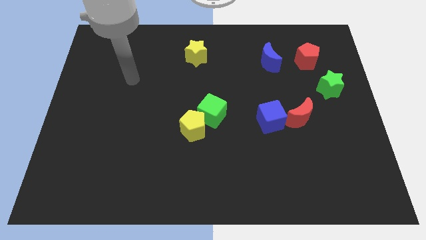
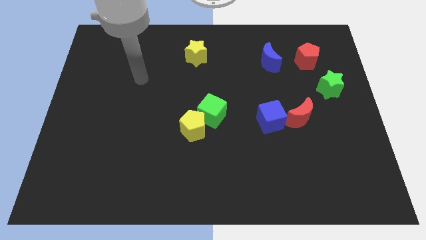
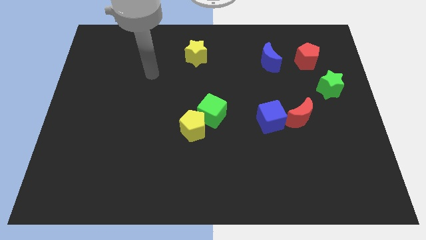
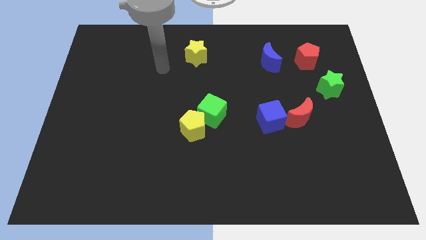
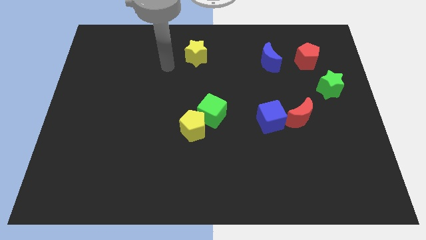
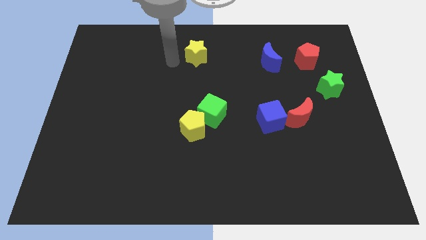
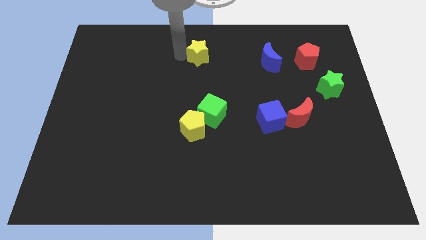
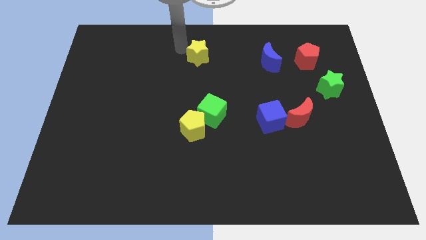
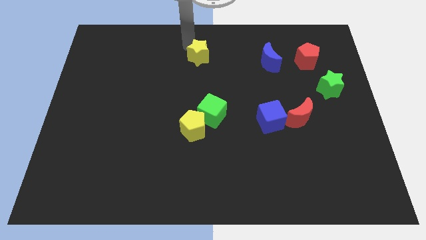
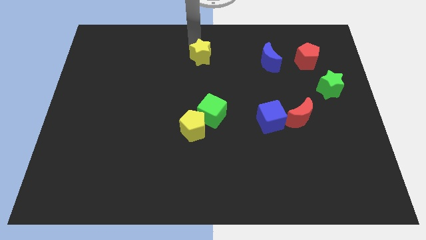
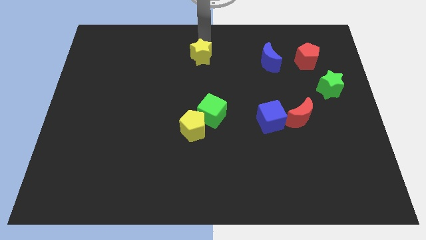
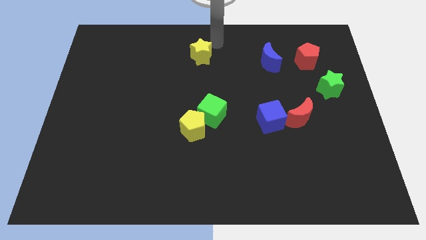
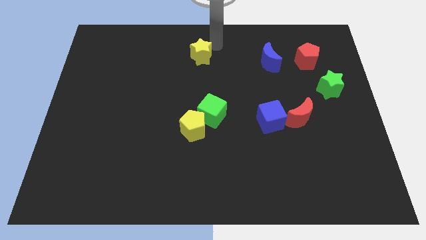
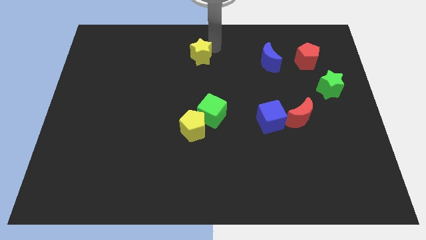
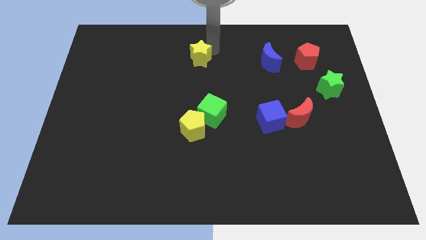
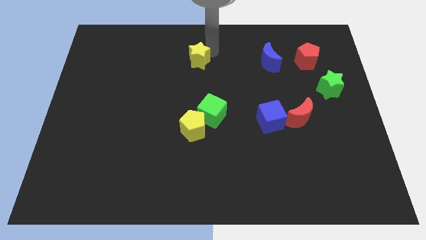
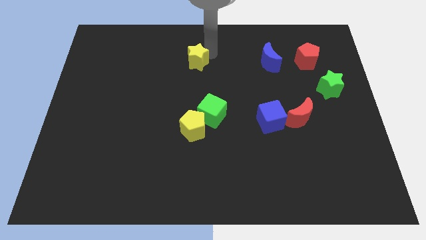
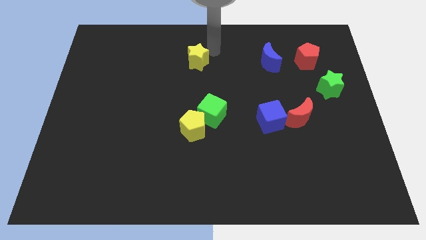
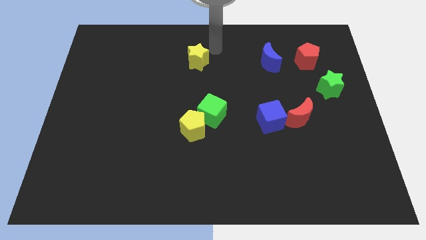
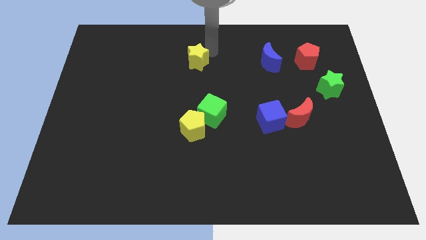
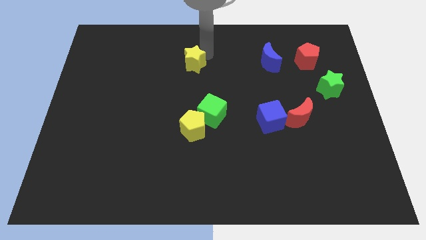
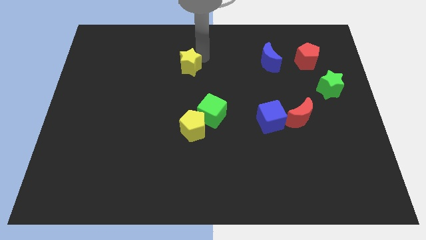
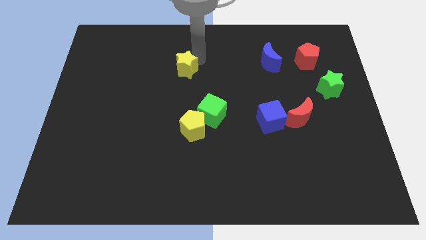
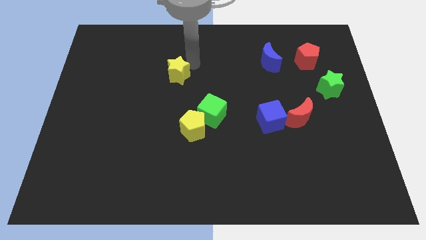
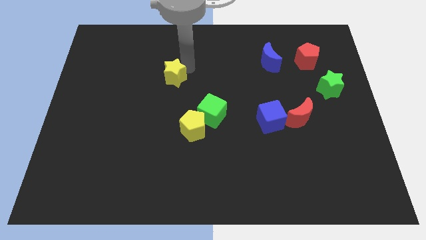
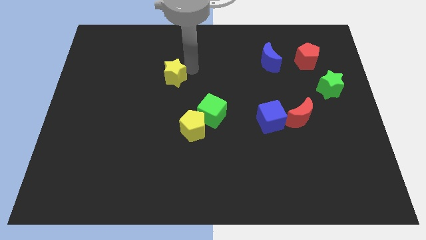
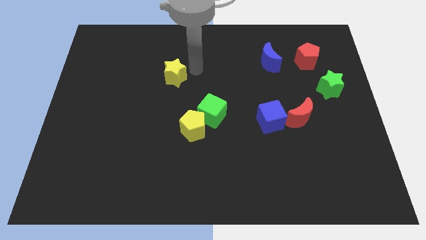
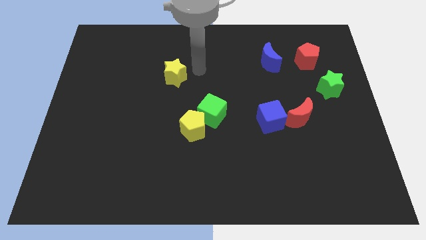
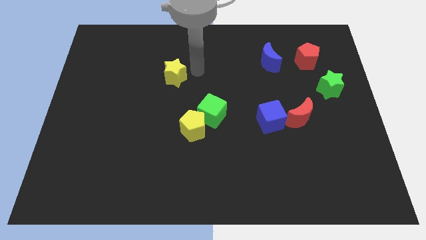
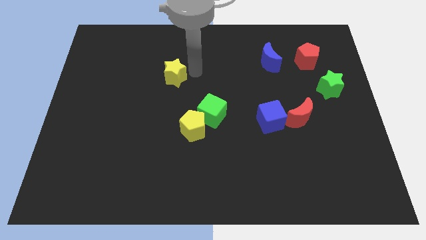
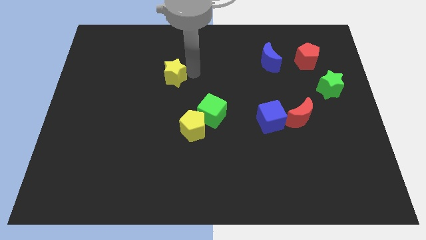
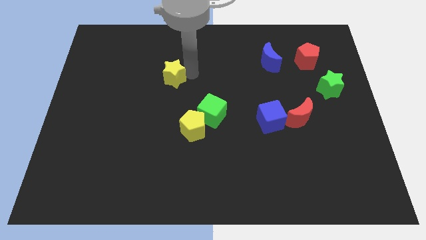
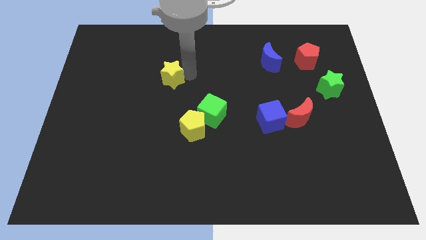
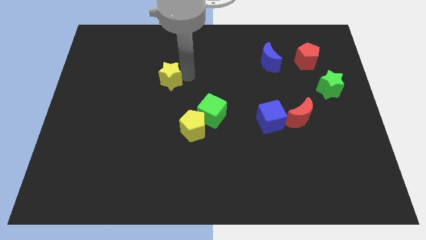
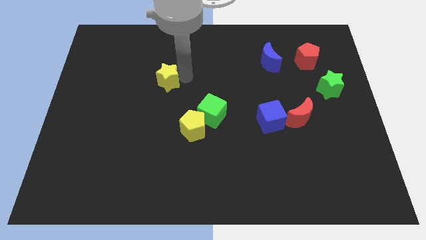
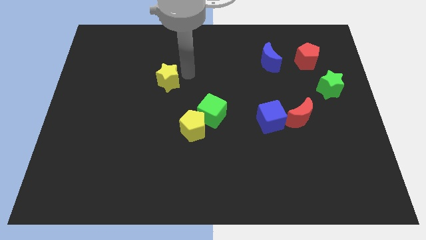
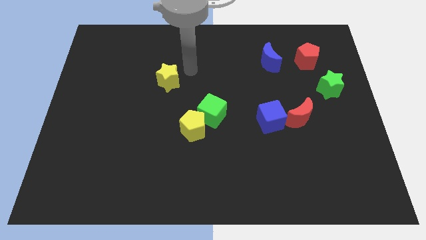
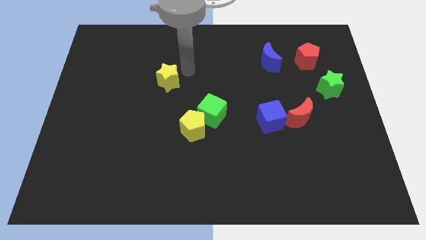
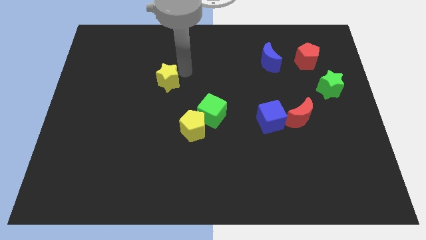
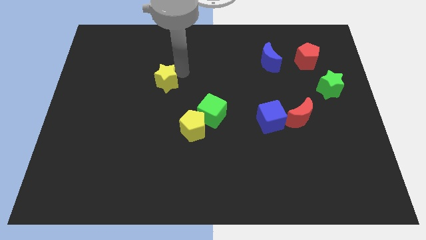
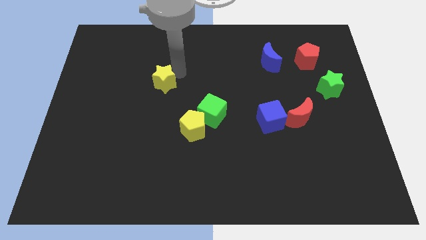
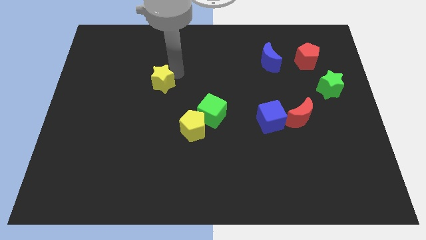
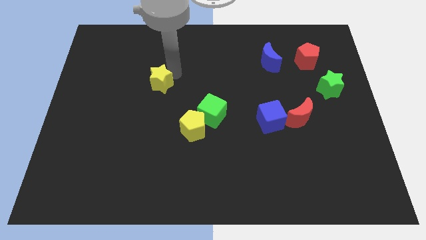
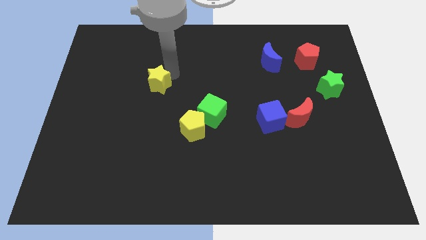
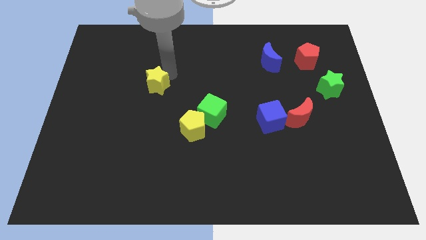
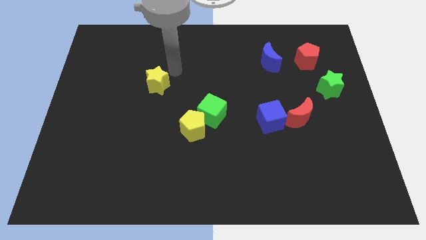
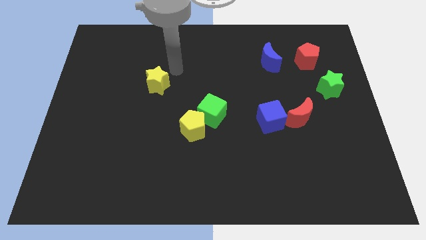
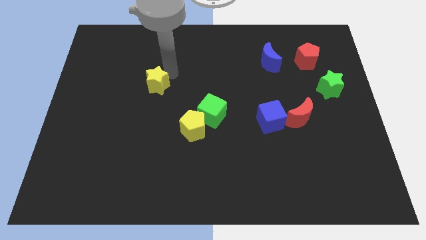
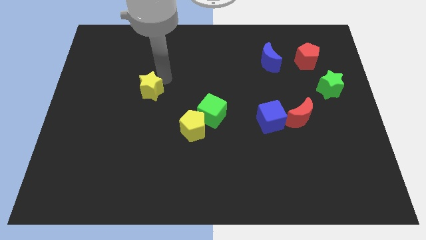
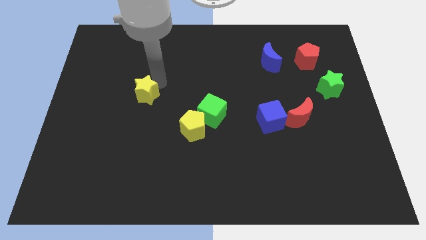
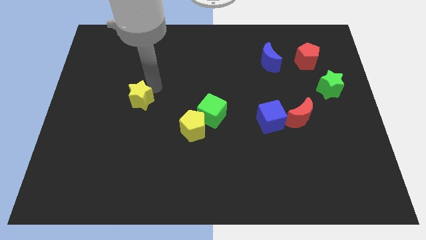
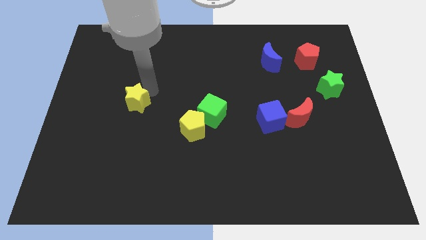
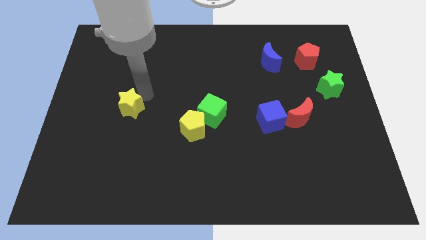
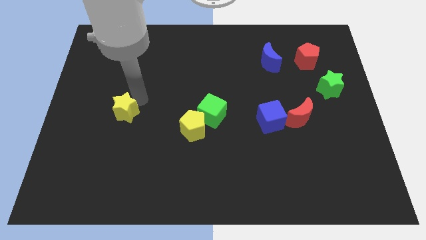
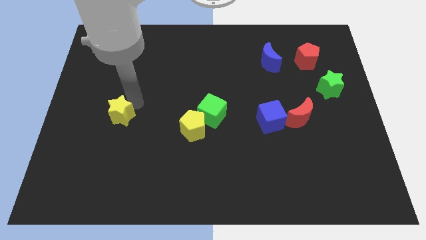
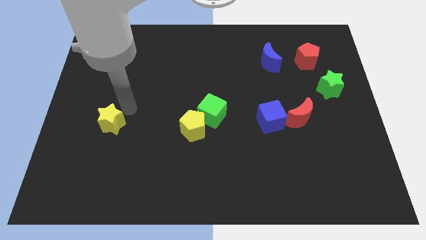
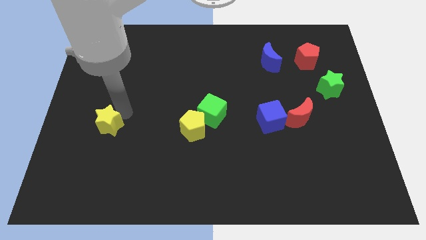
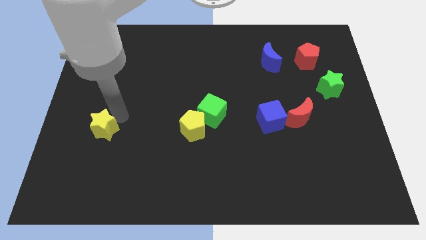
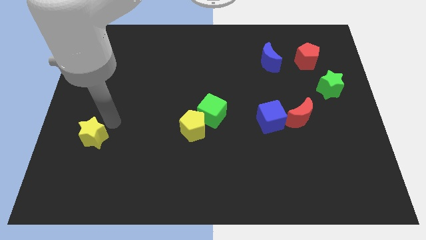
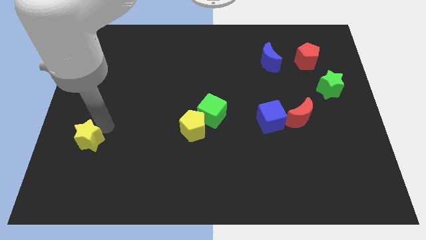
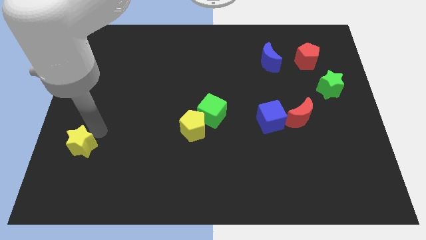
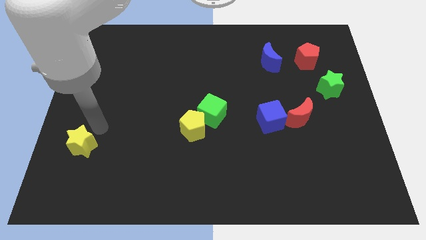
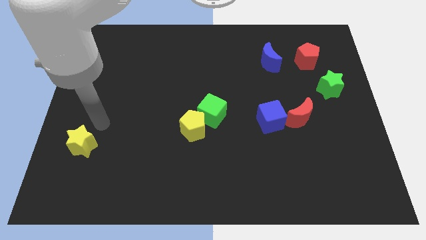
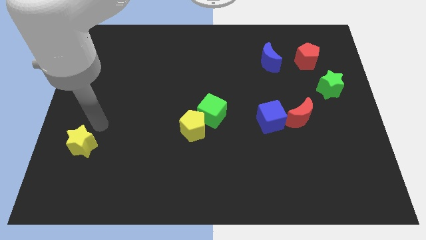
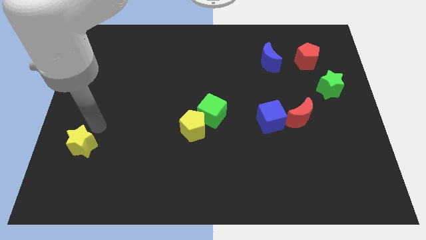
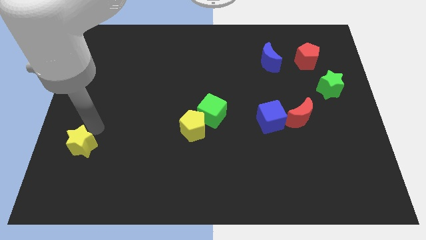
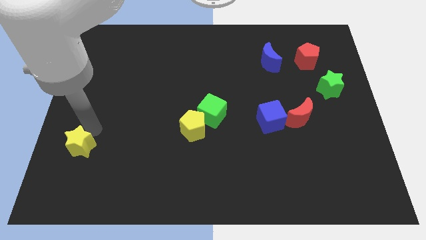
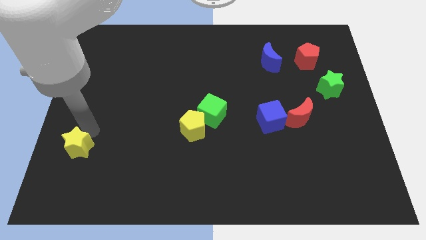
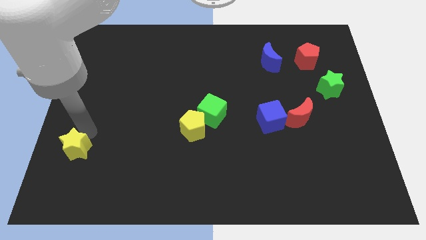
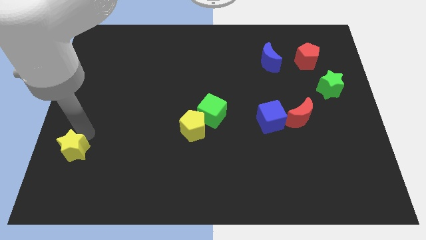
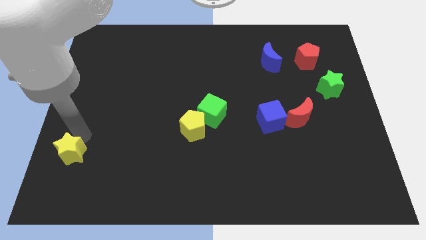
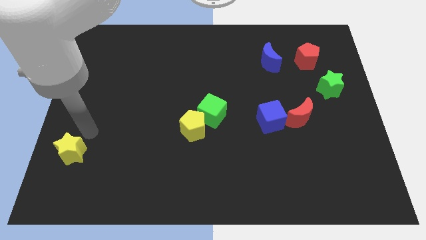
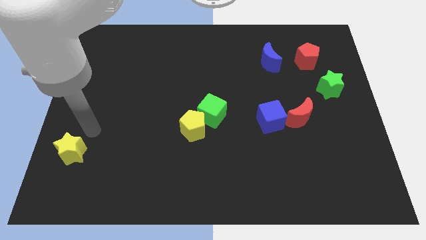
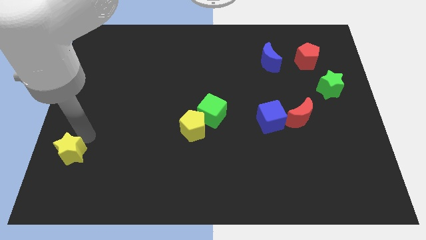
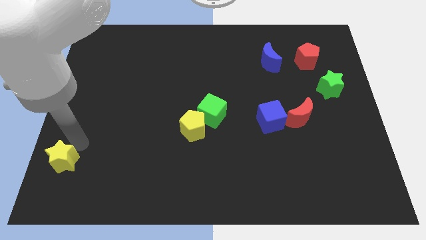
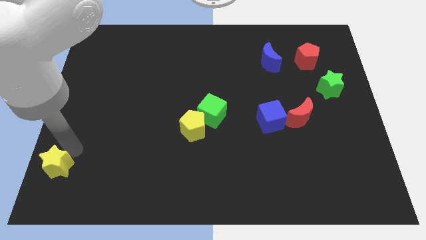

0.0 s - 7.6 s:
slide the yellow star to the lower left corner
